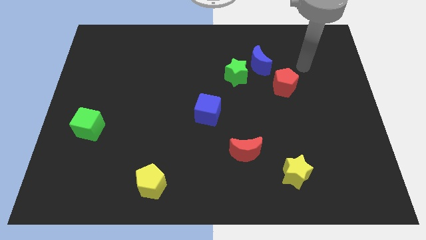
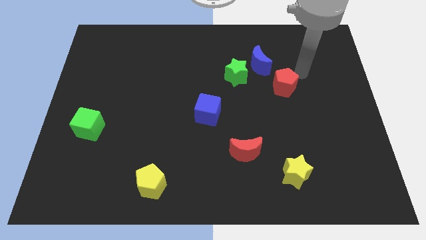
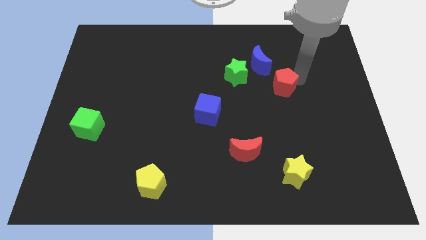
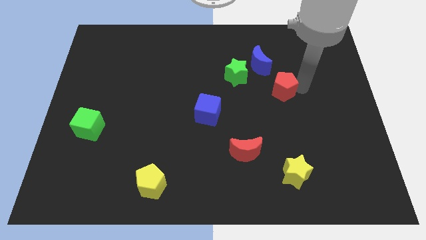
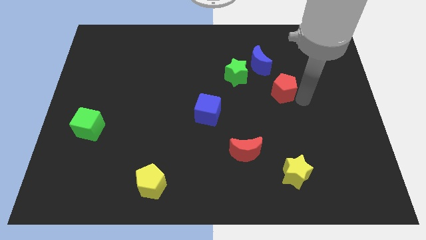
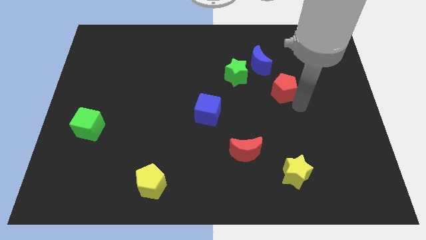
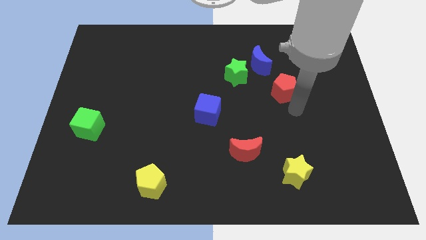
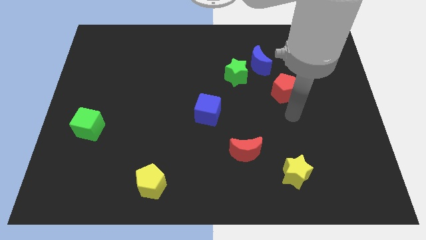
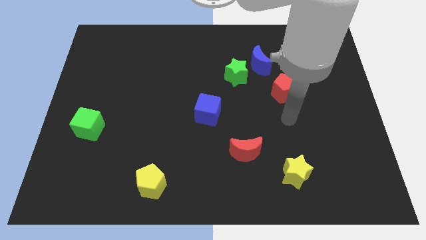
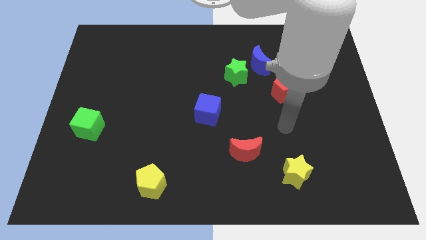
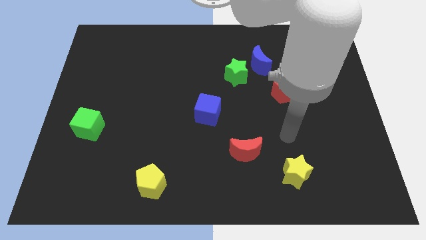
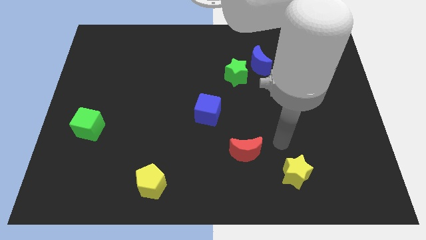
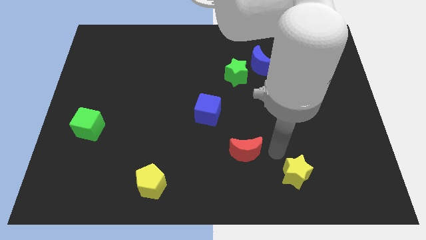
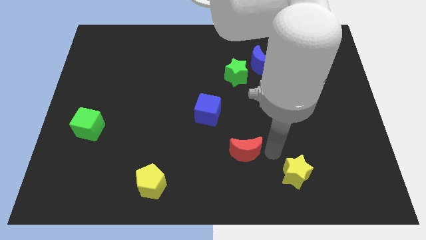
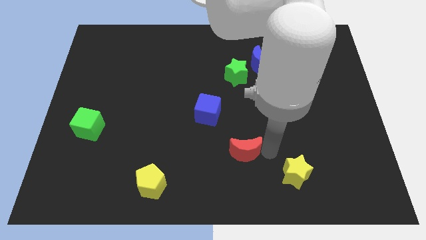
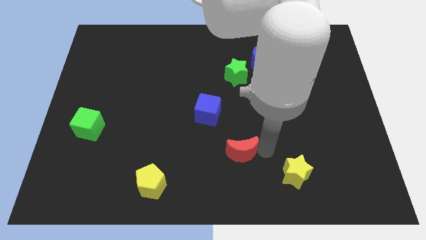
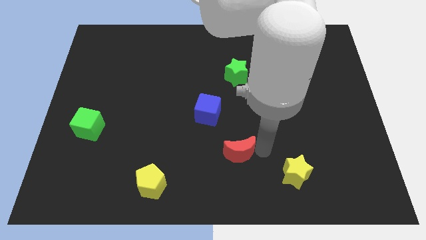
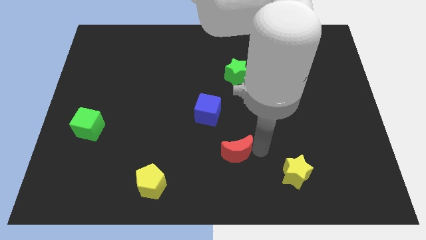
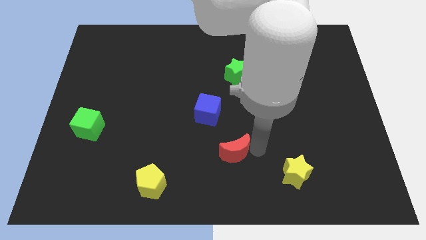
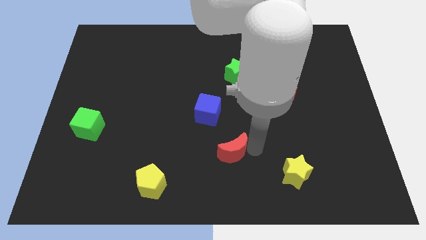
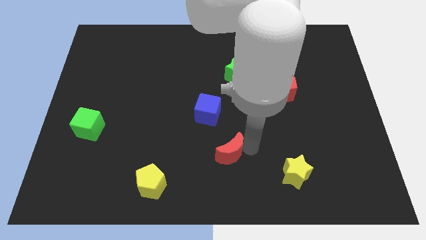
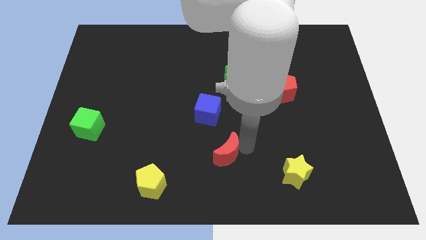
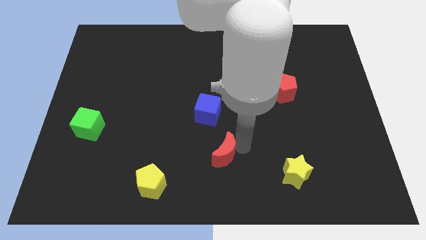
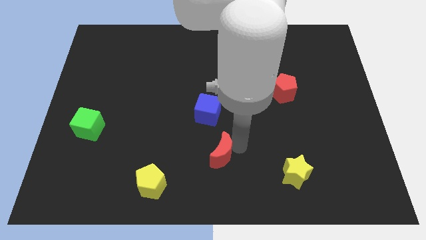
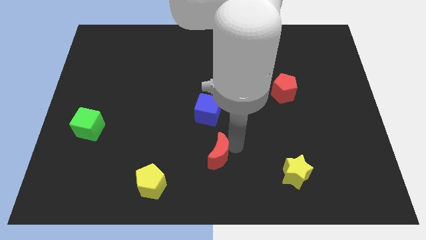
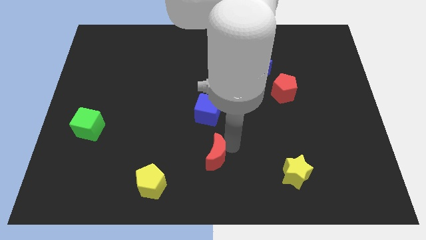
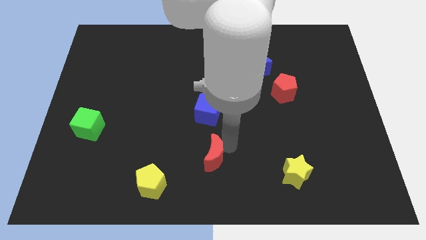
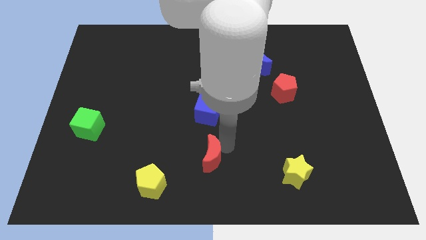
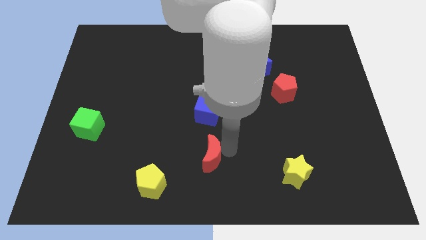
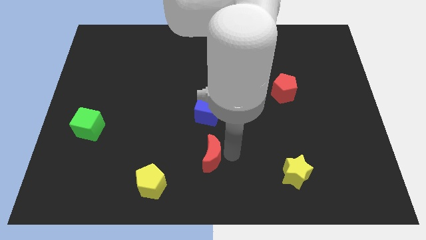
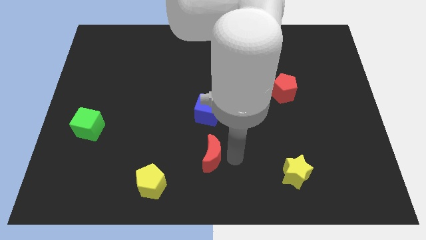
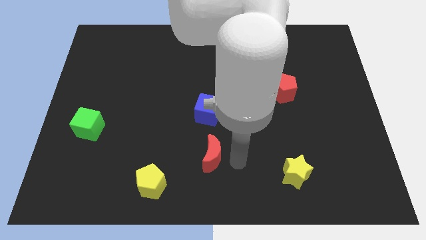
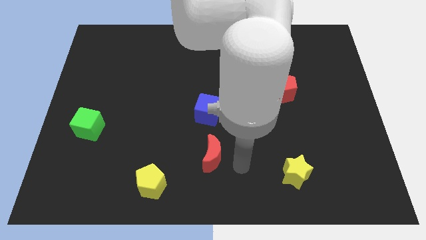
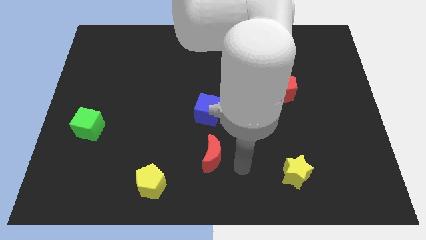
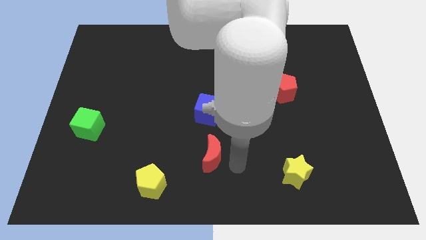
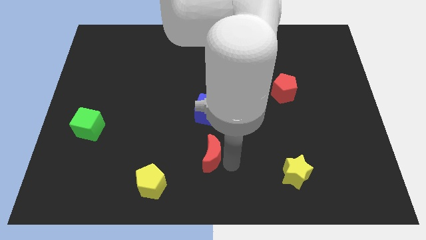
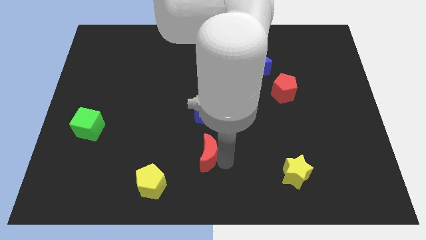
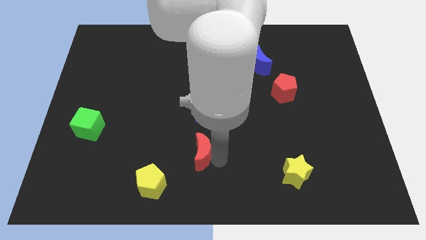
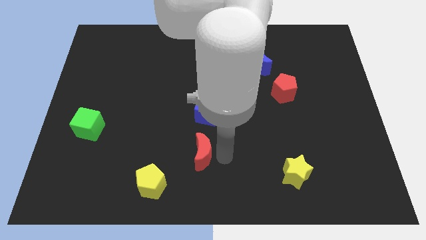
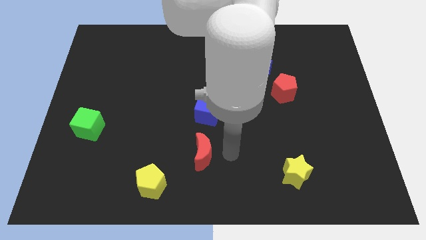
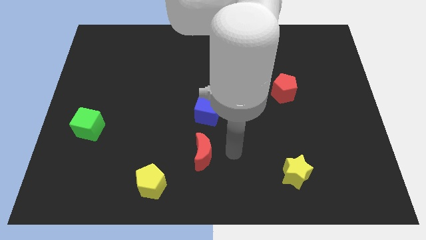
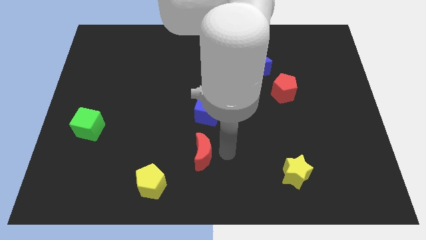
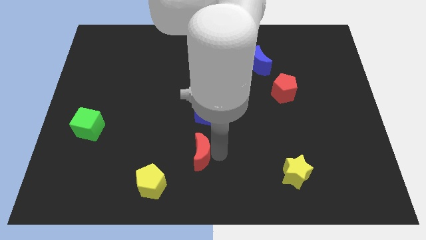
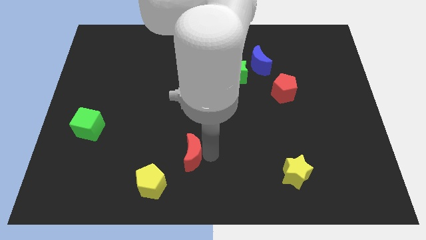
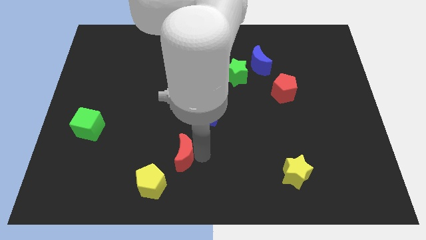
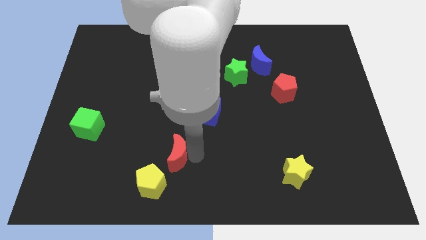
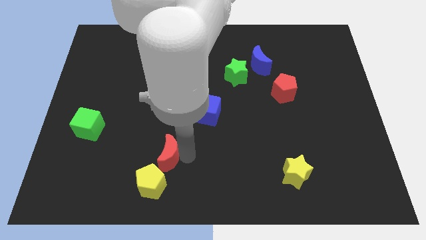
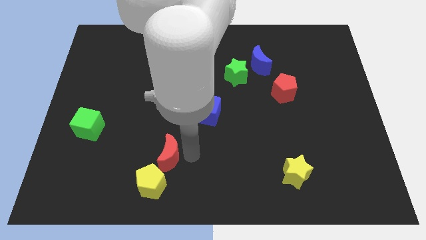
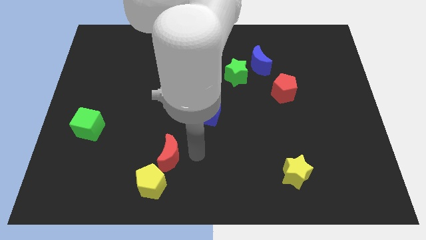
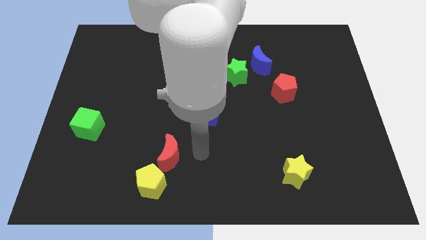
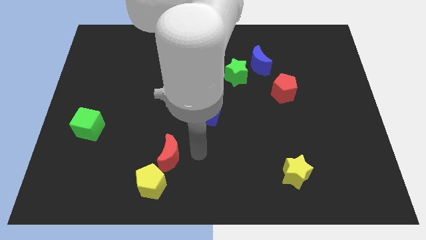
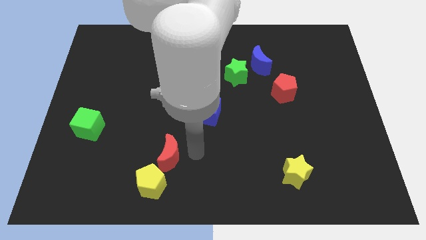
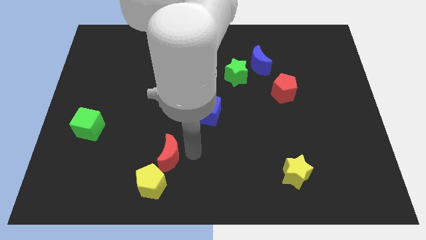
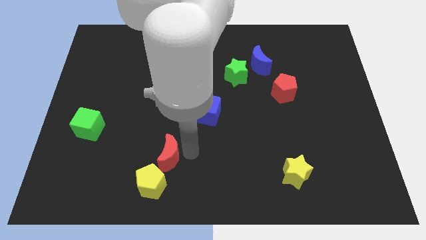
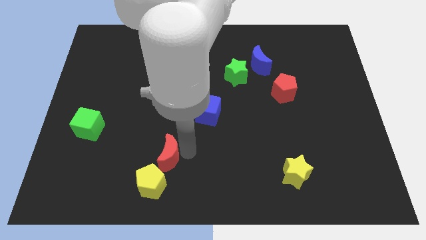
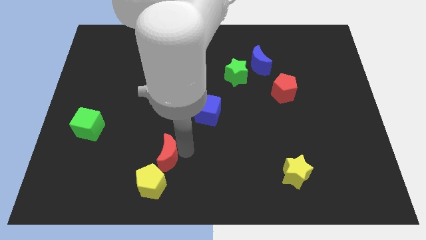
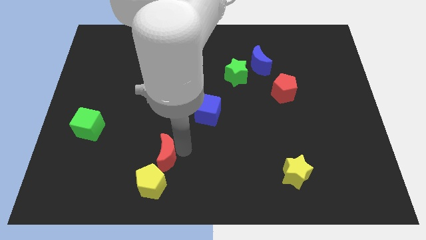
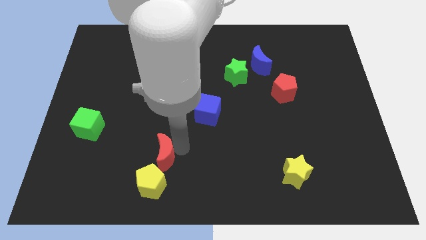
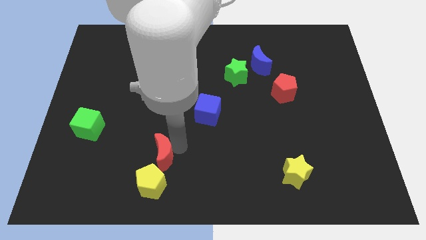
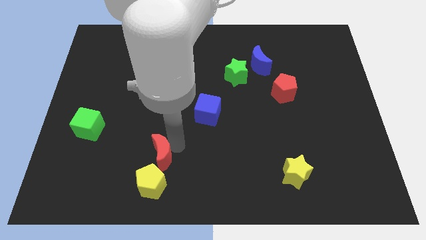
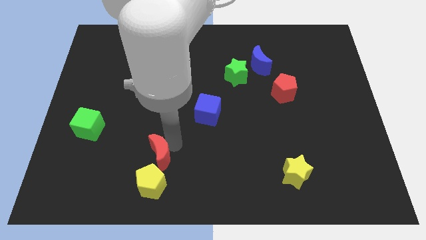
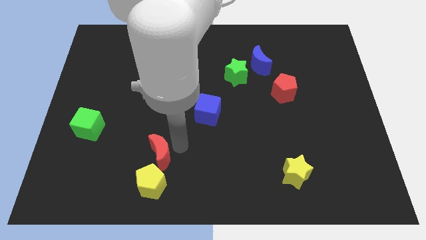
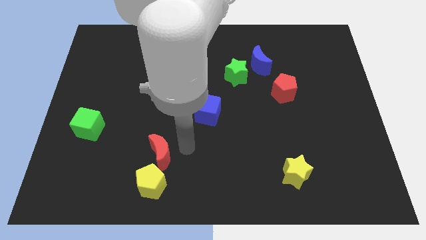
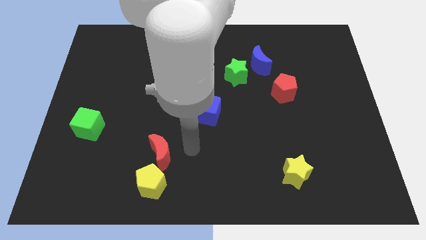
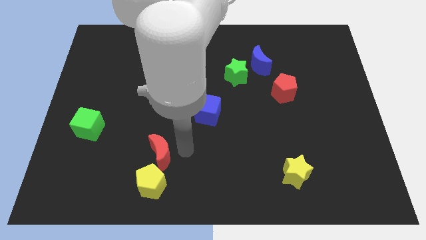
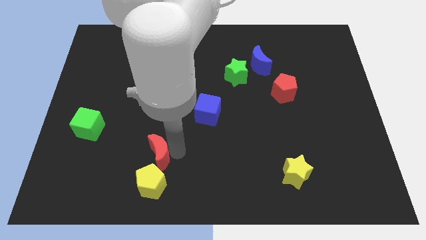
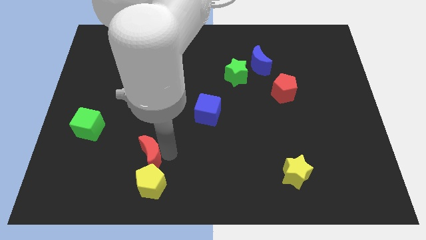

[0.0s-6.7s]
move the red moon to the left

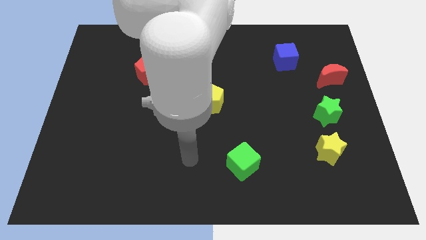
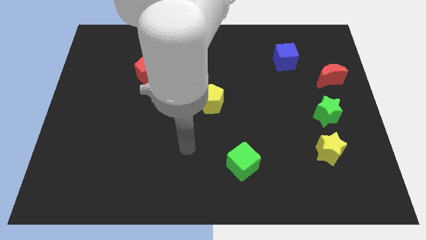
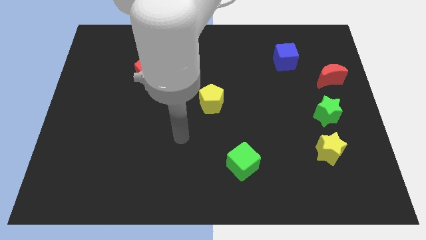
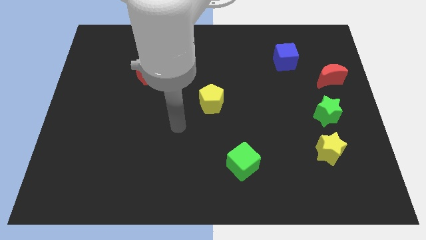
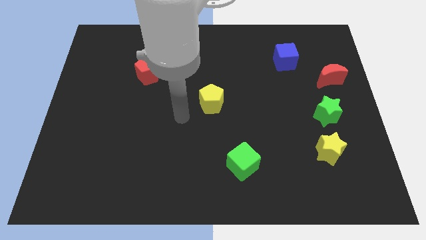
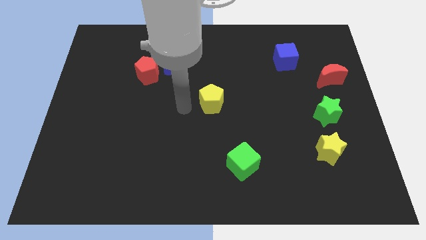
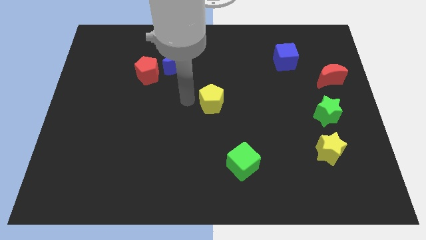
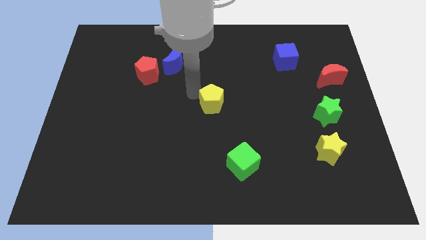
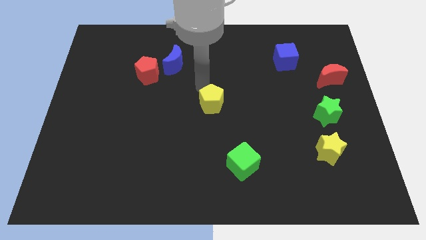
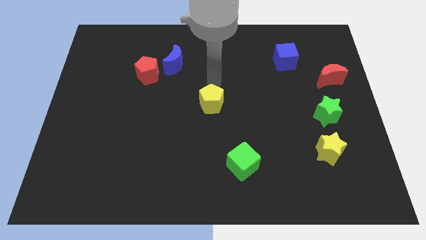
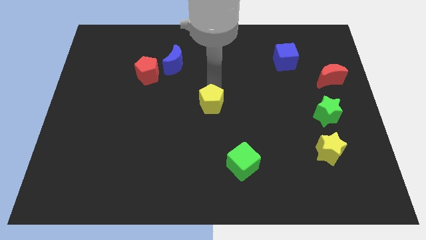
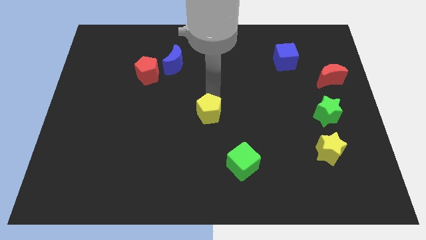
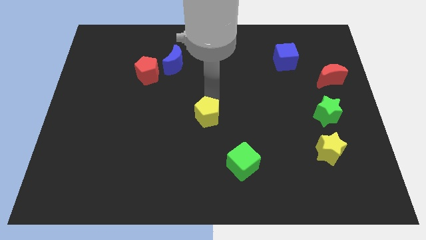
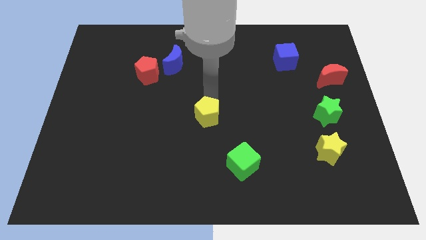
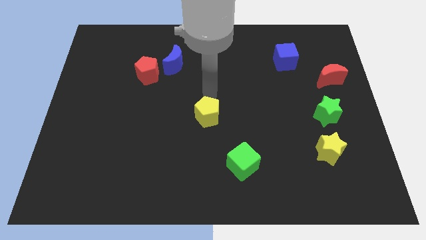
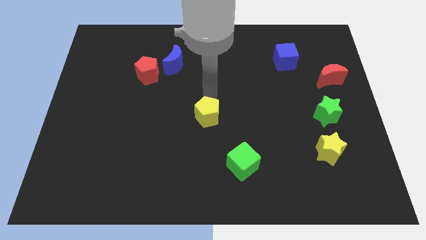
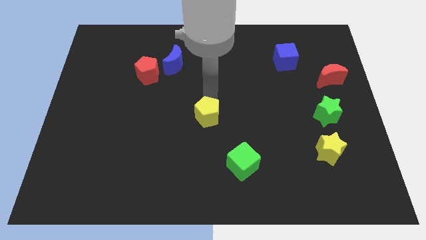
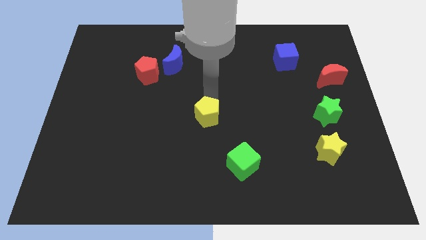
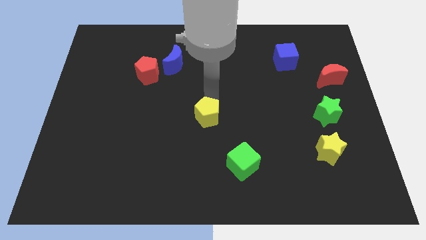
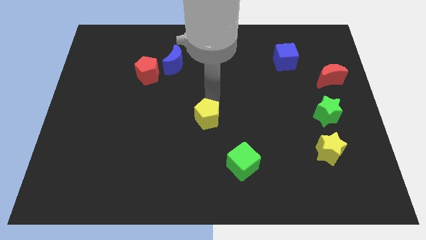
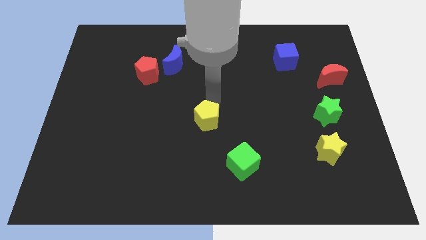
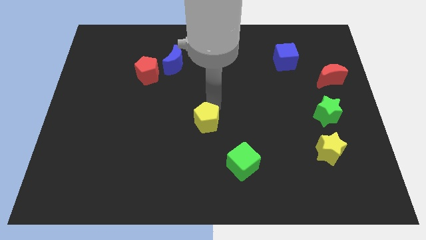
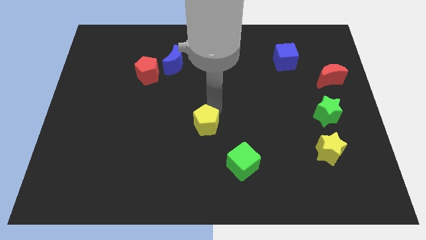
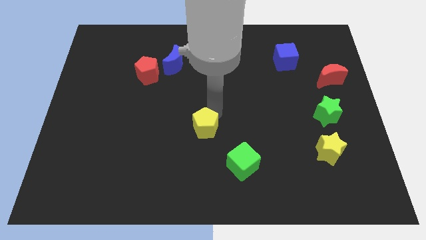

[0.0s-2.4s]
push the yellow pentagon a bit downwards
